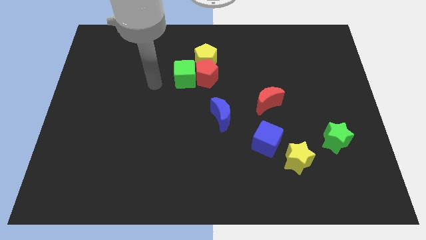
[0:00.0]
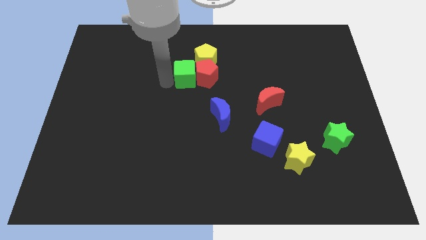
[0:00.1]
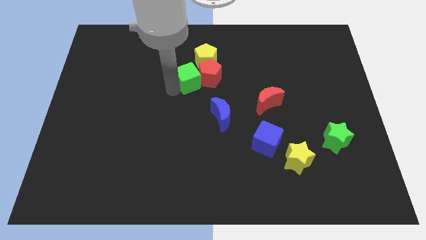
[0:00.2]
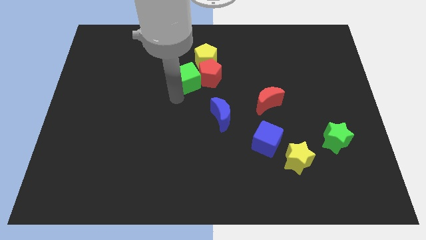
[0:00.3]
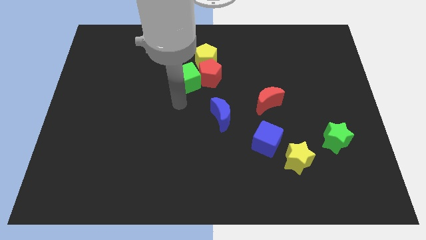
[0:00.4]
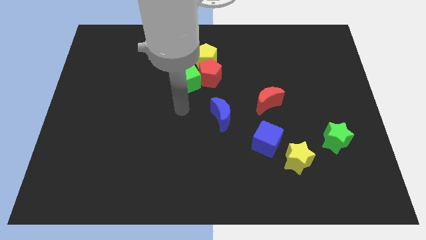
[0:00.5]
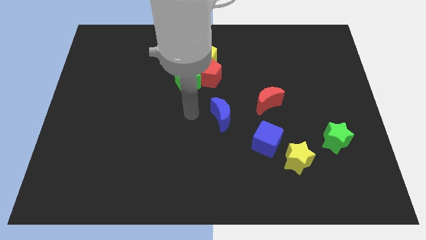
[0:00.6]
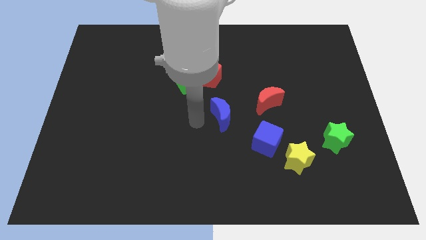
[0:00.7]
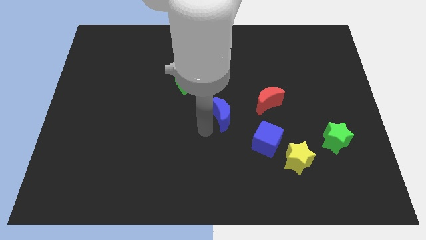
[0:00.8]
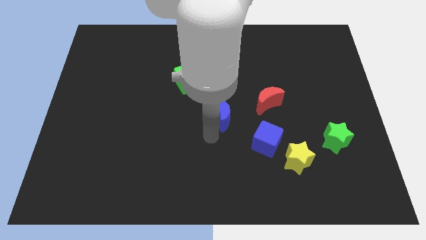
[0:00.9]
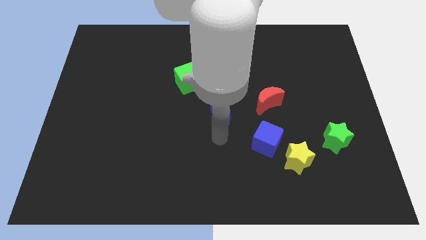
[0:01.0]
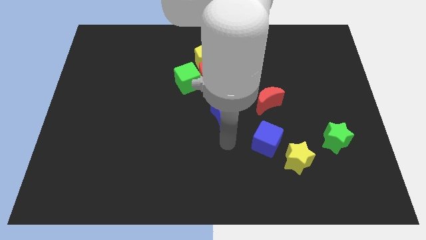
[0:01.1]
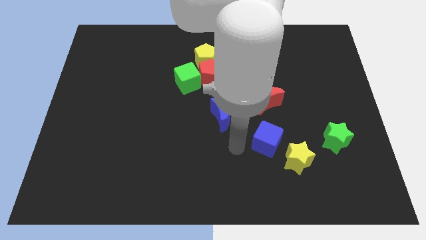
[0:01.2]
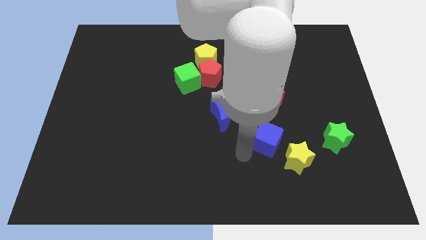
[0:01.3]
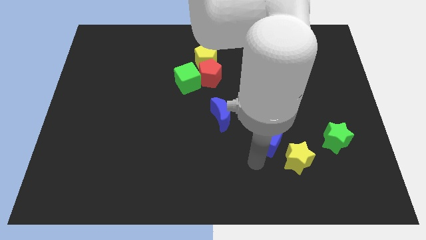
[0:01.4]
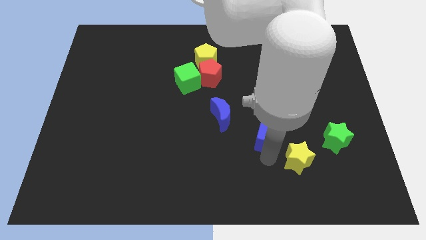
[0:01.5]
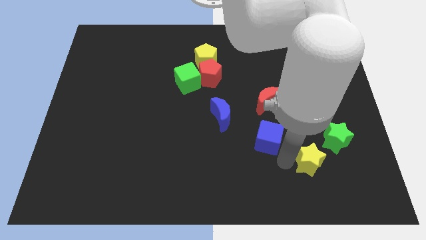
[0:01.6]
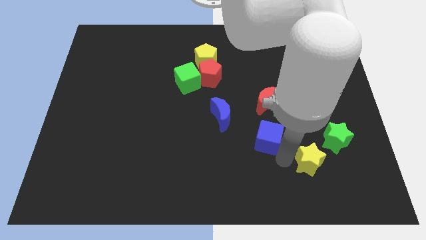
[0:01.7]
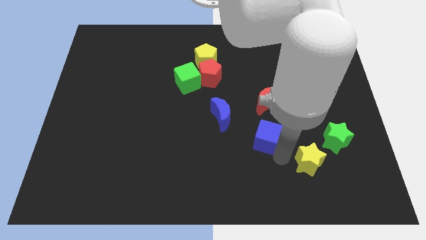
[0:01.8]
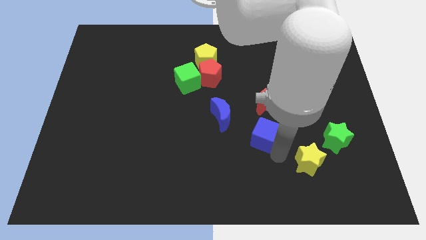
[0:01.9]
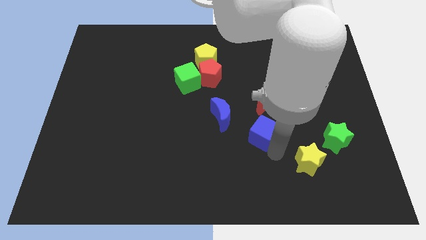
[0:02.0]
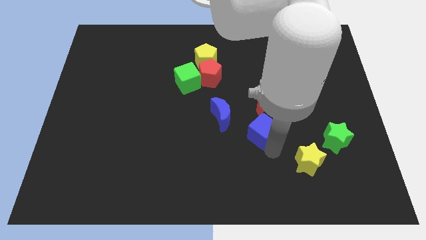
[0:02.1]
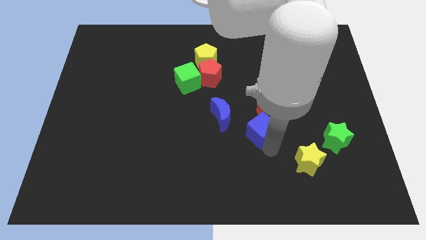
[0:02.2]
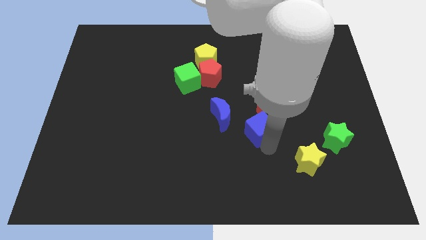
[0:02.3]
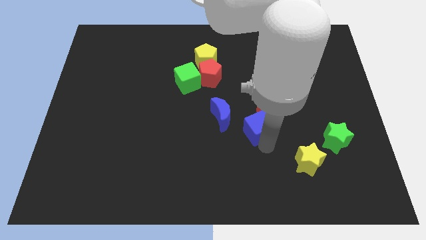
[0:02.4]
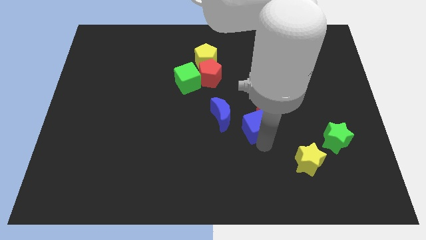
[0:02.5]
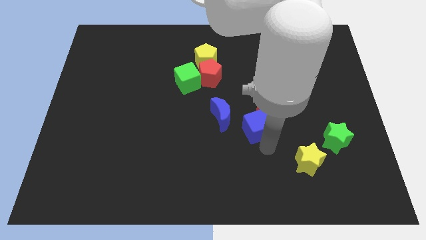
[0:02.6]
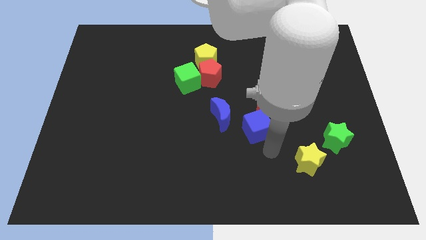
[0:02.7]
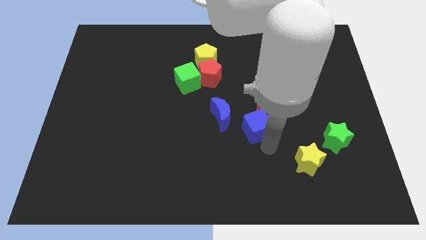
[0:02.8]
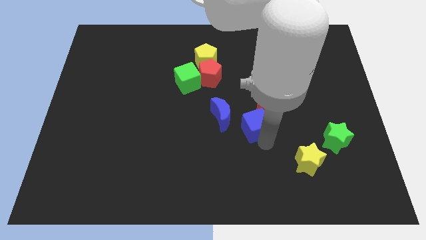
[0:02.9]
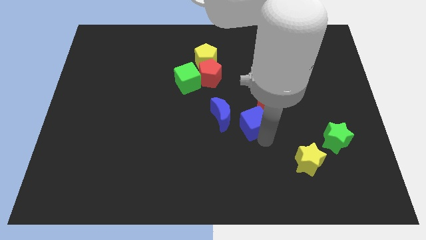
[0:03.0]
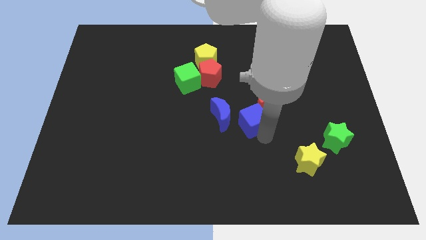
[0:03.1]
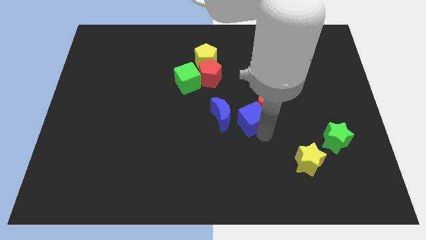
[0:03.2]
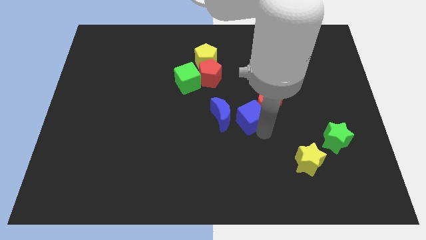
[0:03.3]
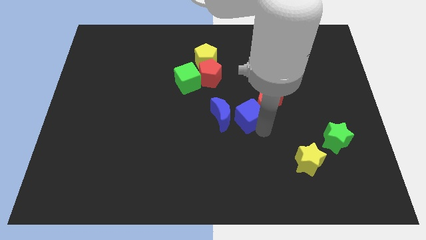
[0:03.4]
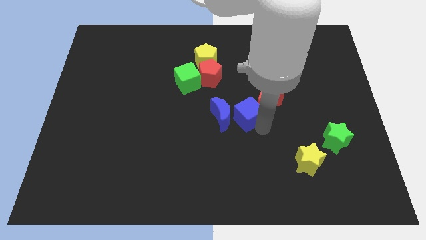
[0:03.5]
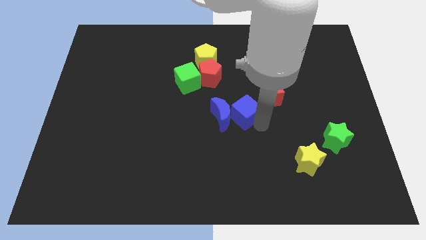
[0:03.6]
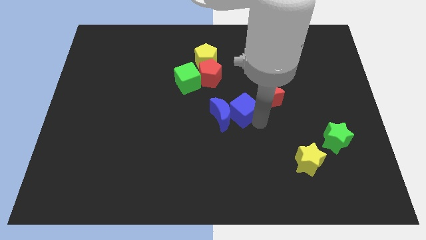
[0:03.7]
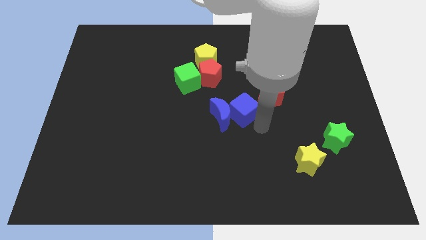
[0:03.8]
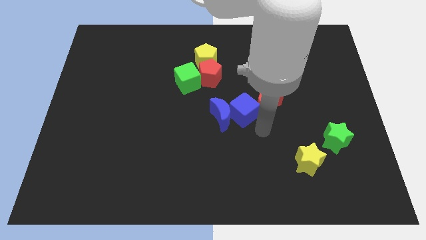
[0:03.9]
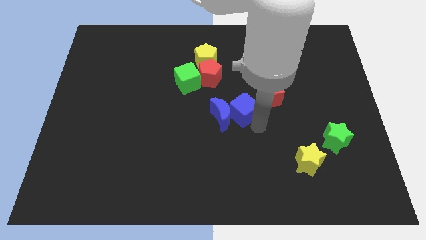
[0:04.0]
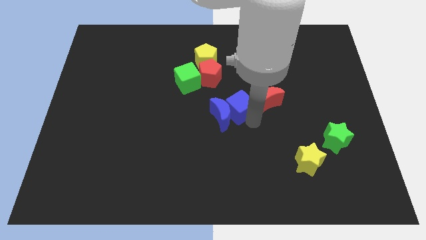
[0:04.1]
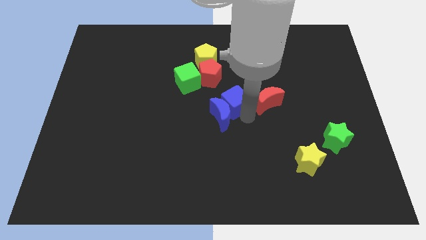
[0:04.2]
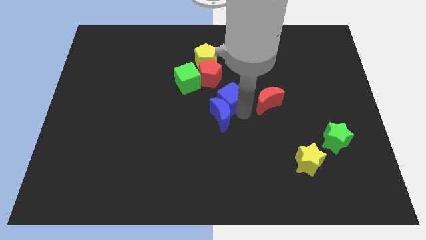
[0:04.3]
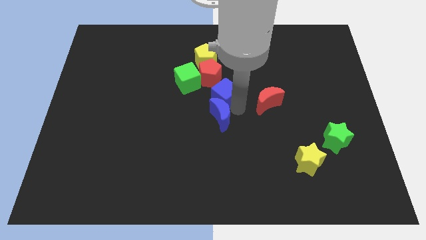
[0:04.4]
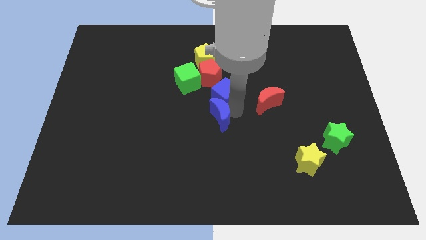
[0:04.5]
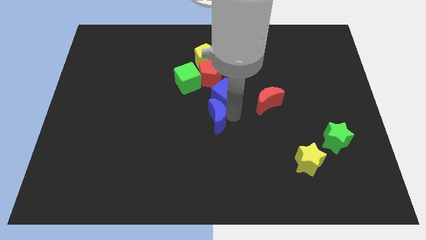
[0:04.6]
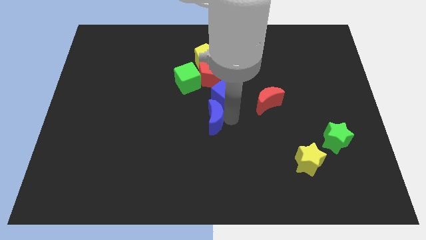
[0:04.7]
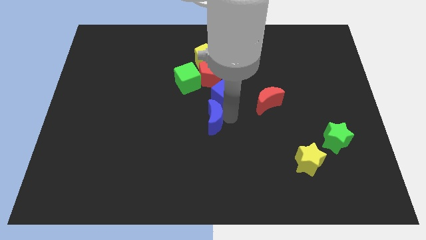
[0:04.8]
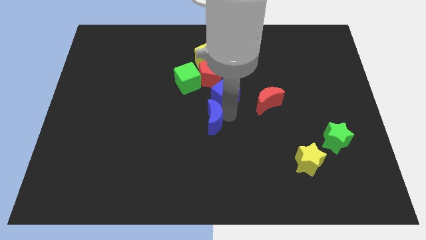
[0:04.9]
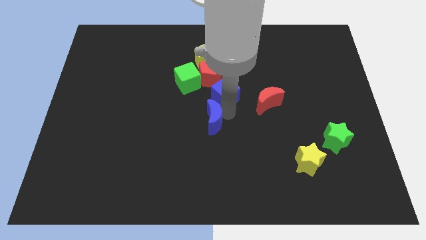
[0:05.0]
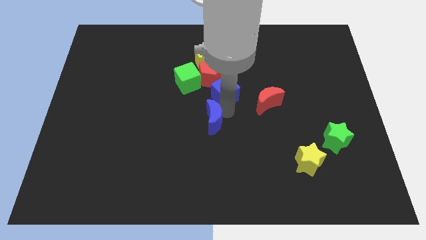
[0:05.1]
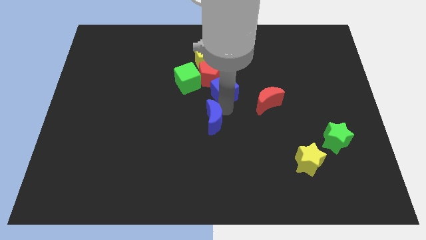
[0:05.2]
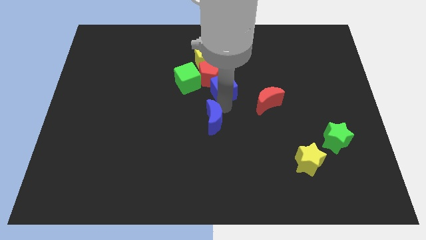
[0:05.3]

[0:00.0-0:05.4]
put the blue cube to the bottom right of the yellow pentagon

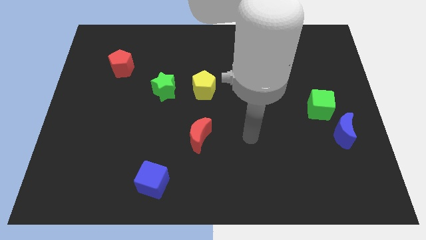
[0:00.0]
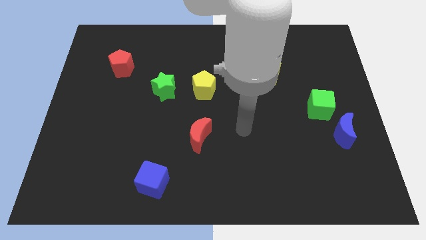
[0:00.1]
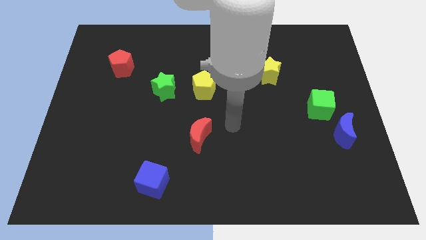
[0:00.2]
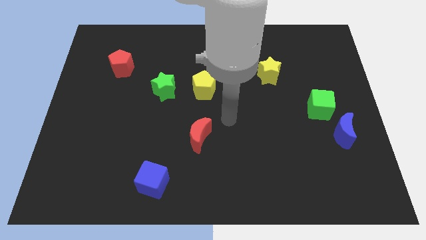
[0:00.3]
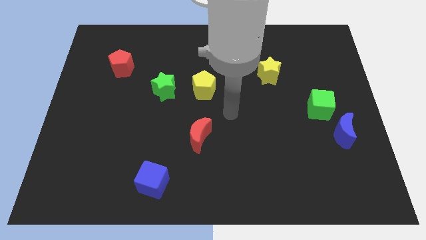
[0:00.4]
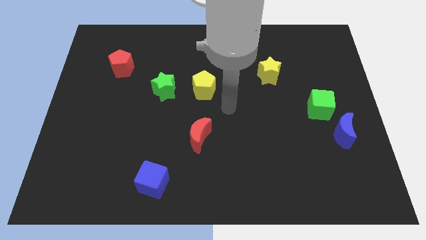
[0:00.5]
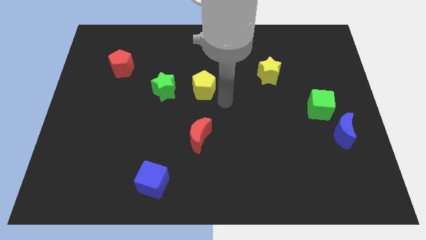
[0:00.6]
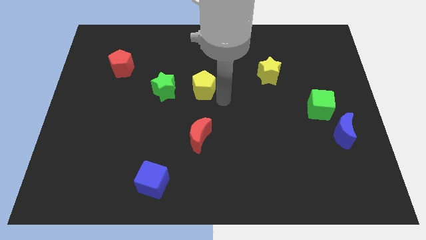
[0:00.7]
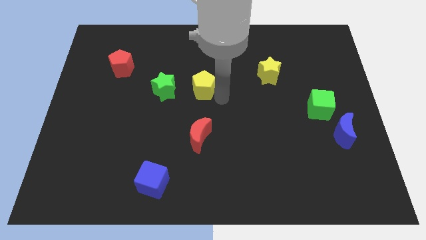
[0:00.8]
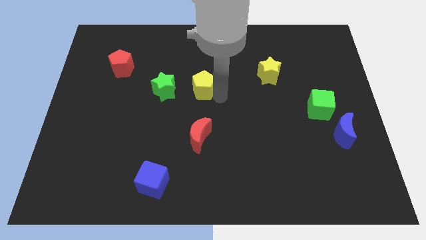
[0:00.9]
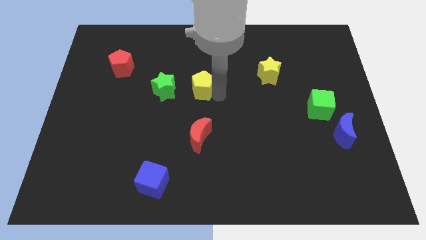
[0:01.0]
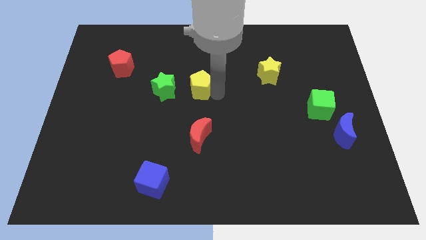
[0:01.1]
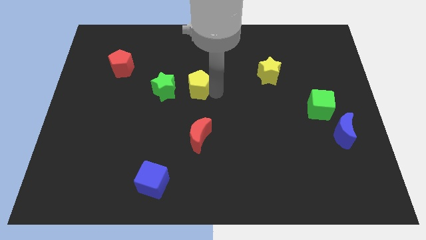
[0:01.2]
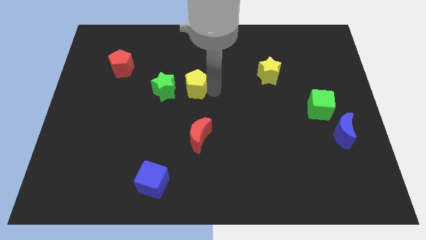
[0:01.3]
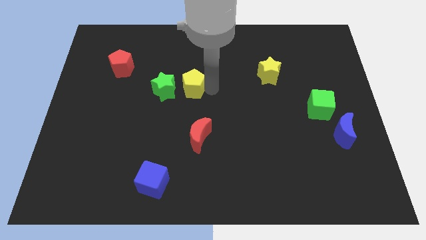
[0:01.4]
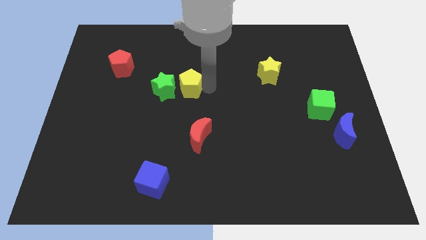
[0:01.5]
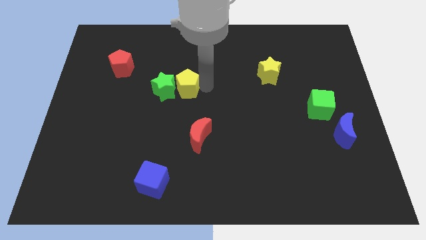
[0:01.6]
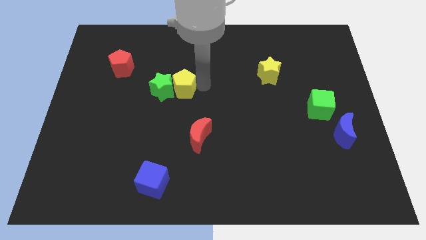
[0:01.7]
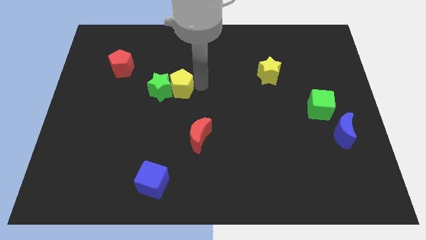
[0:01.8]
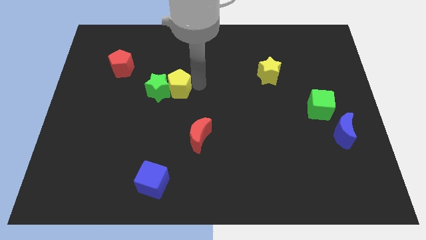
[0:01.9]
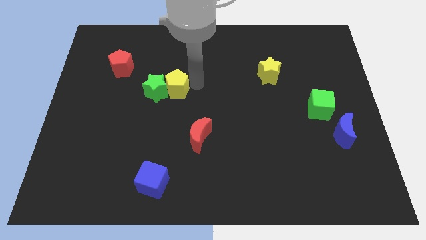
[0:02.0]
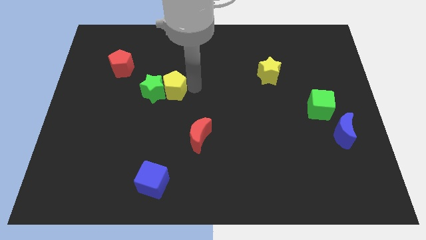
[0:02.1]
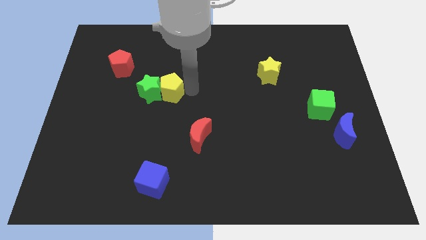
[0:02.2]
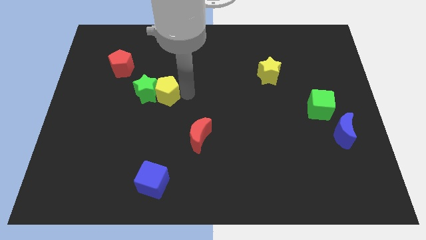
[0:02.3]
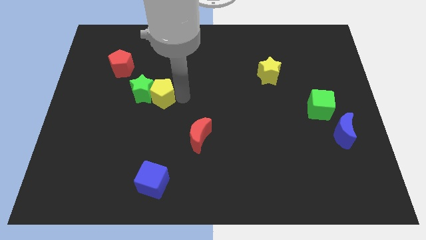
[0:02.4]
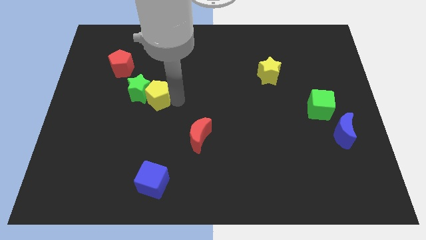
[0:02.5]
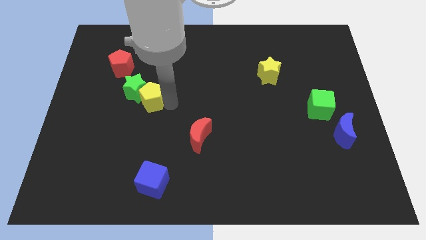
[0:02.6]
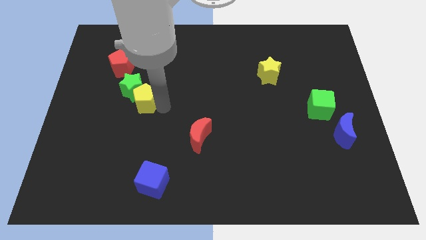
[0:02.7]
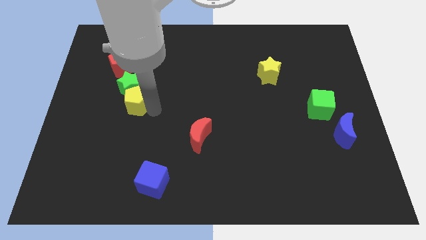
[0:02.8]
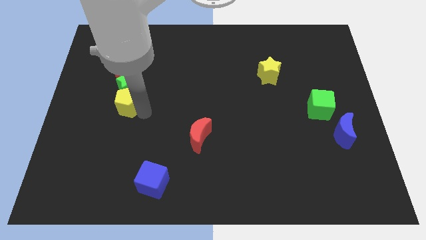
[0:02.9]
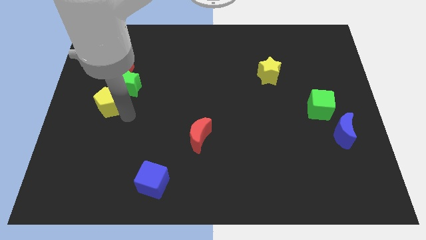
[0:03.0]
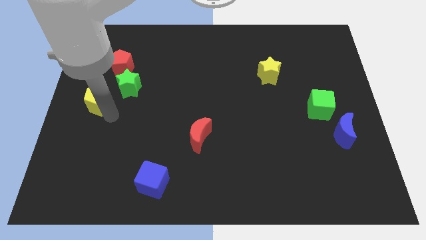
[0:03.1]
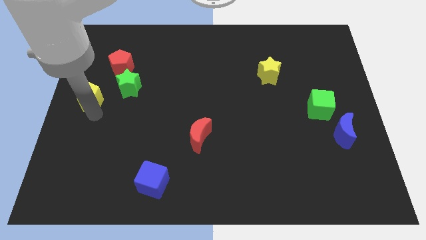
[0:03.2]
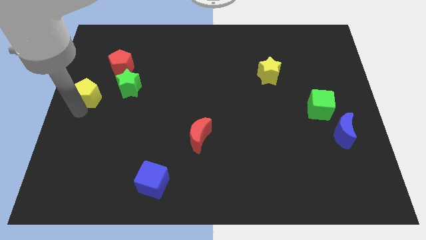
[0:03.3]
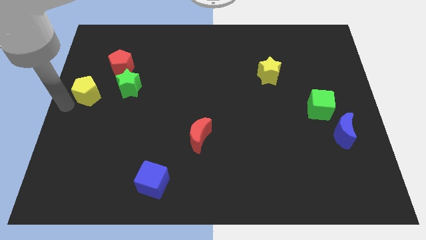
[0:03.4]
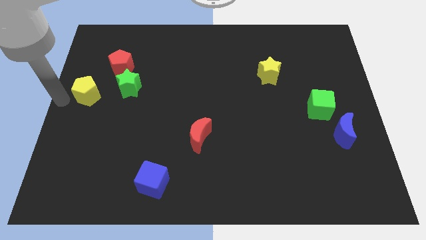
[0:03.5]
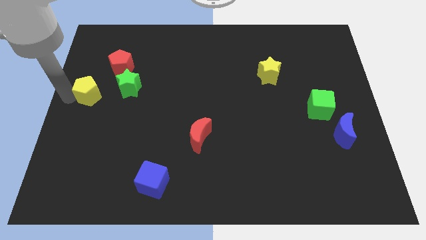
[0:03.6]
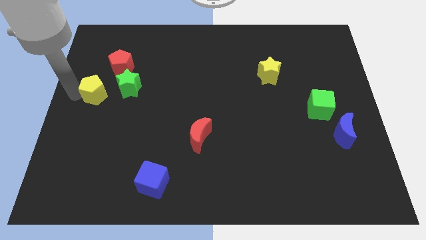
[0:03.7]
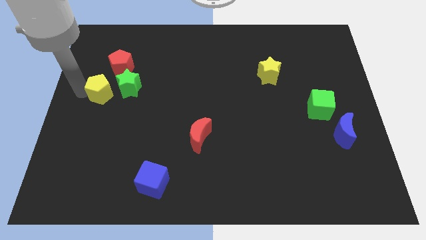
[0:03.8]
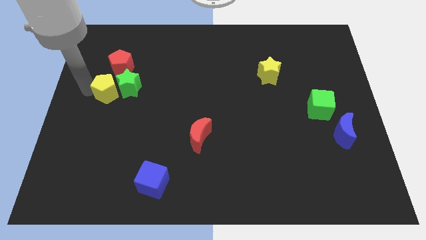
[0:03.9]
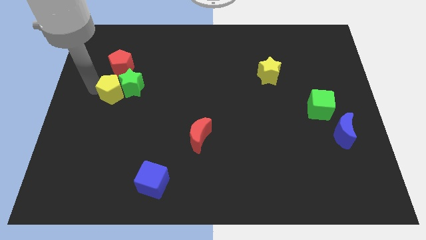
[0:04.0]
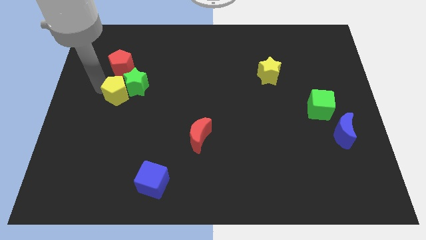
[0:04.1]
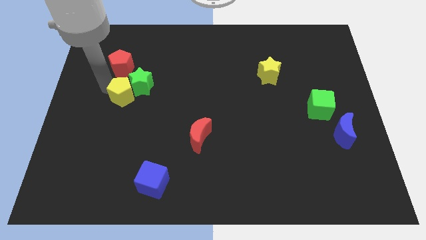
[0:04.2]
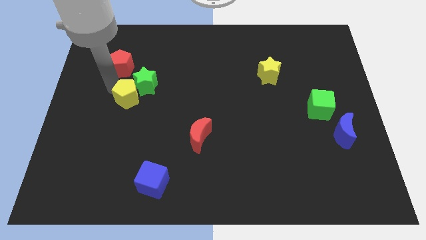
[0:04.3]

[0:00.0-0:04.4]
put the yellow pentagon diagonally down and to the right of the red pentagon
